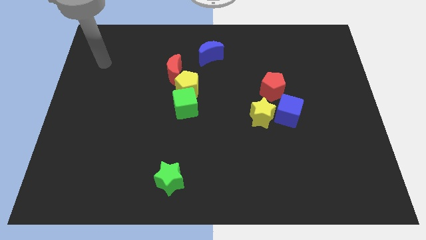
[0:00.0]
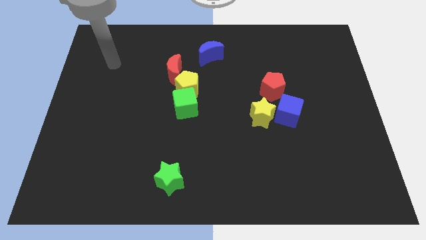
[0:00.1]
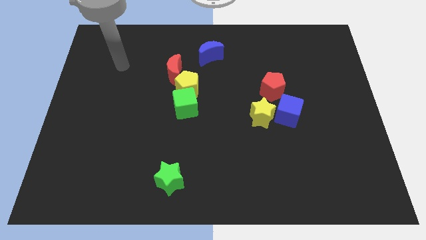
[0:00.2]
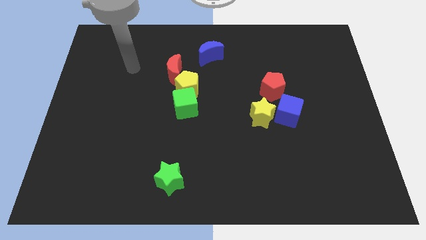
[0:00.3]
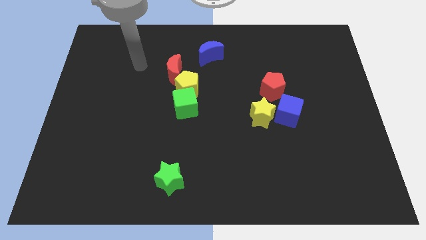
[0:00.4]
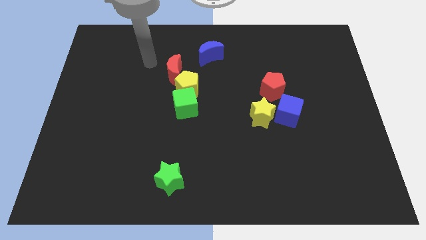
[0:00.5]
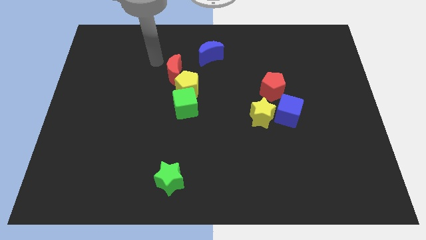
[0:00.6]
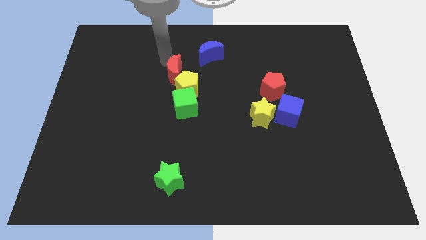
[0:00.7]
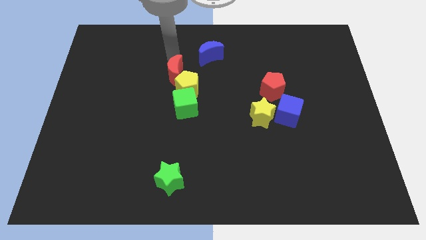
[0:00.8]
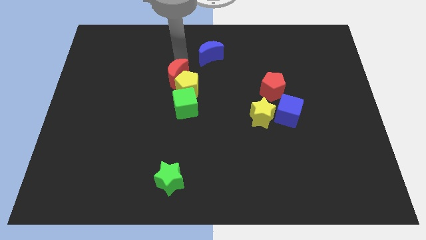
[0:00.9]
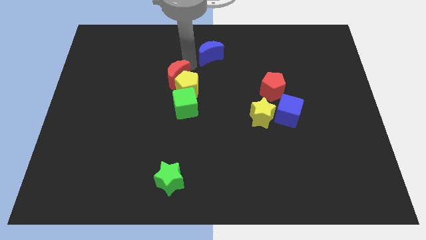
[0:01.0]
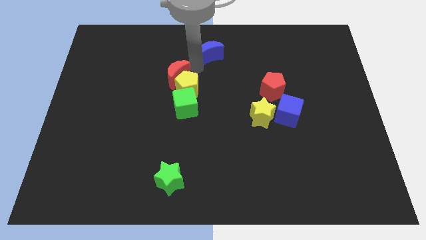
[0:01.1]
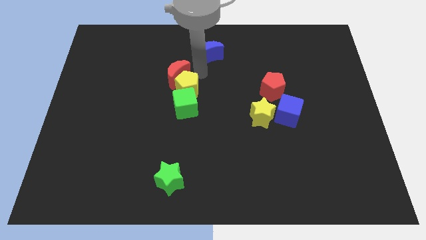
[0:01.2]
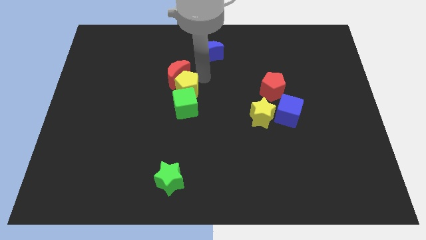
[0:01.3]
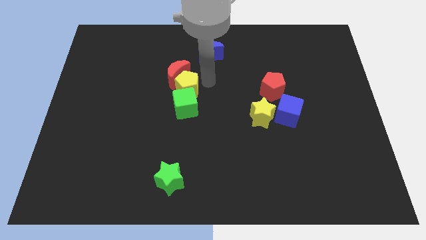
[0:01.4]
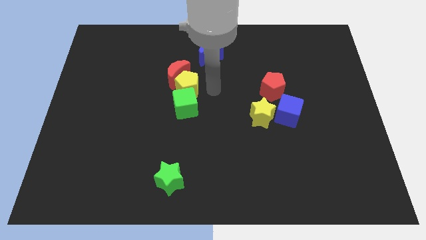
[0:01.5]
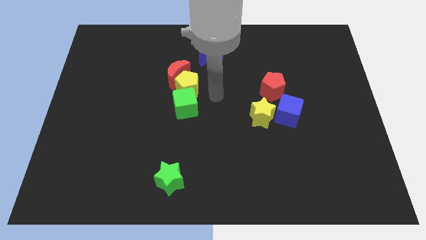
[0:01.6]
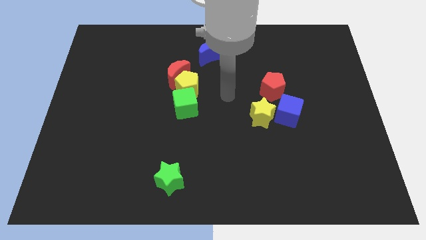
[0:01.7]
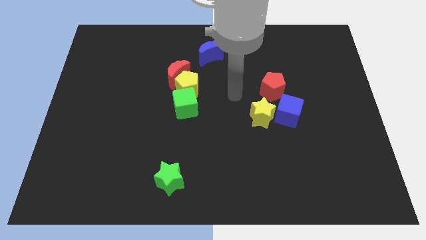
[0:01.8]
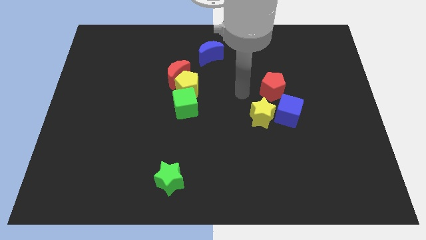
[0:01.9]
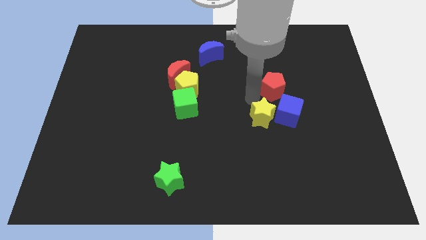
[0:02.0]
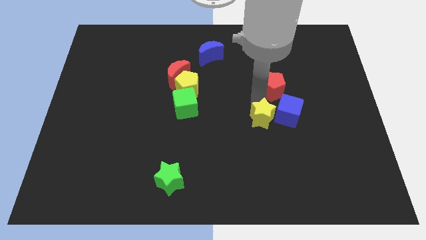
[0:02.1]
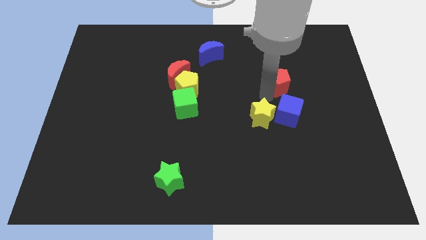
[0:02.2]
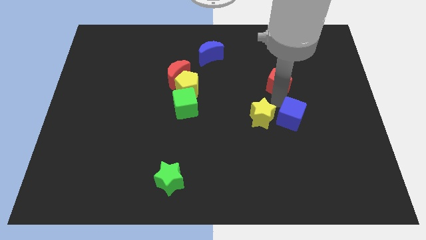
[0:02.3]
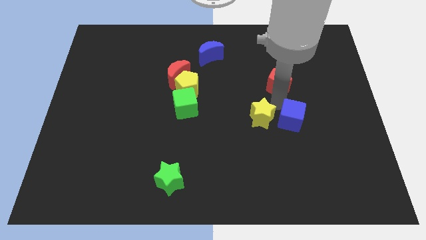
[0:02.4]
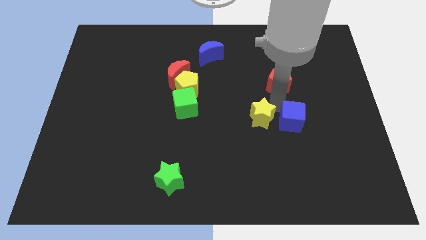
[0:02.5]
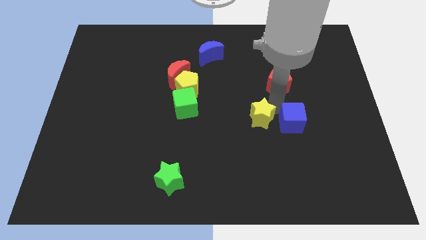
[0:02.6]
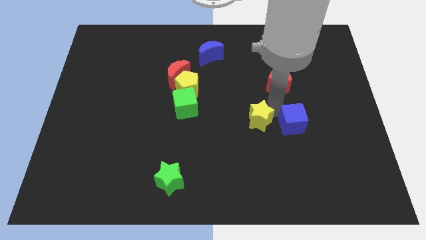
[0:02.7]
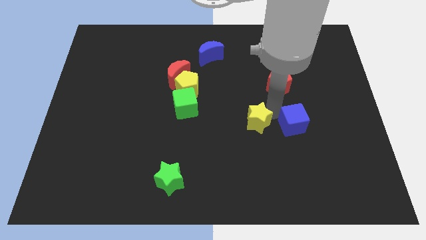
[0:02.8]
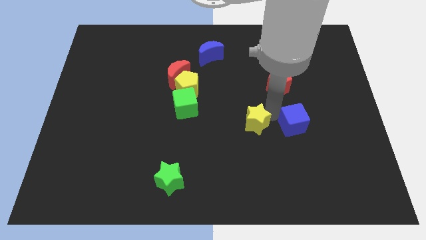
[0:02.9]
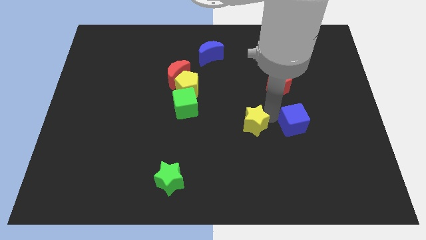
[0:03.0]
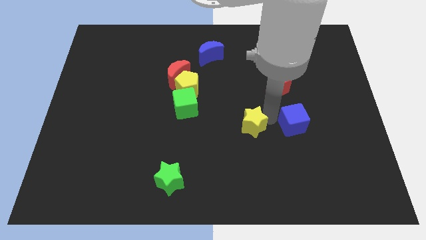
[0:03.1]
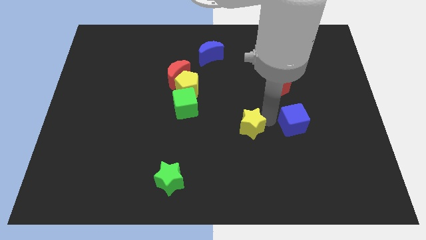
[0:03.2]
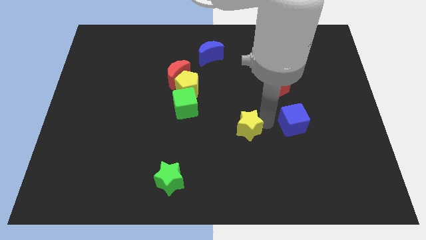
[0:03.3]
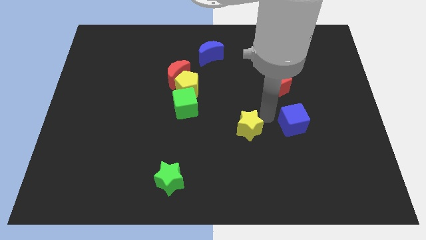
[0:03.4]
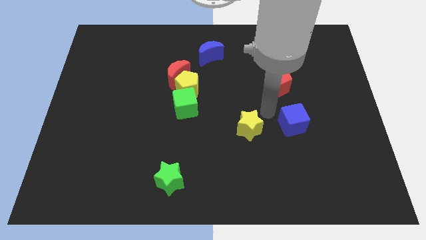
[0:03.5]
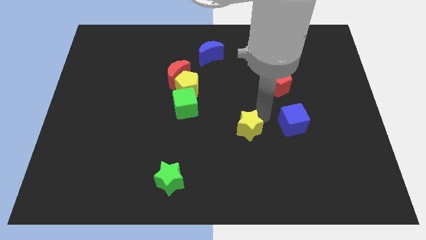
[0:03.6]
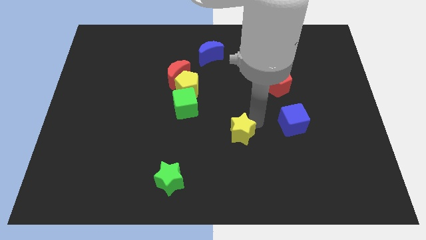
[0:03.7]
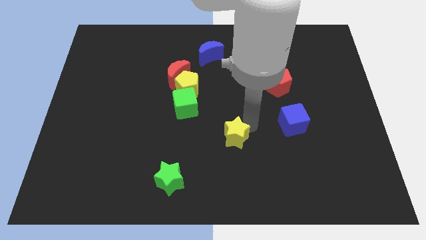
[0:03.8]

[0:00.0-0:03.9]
move the yellow star diagonally downwards and to the left a little

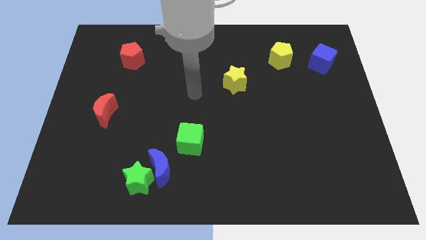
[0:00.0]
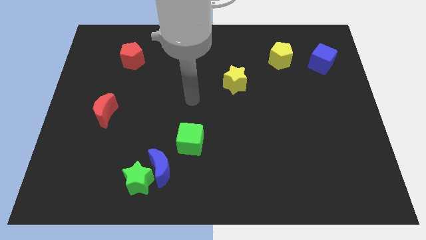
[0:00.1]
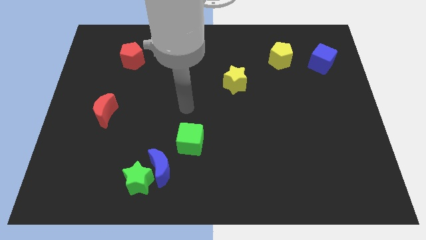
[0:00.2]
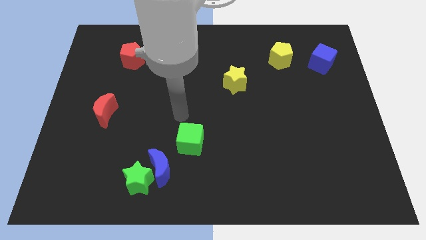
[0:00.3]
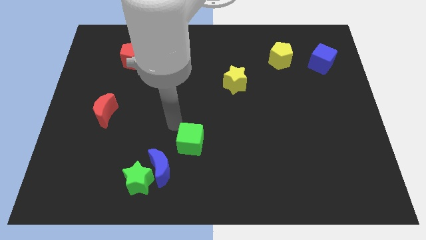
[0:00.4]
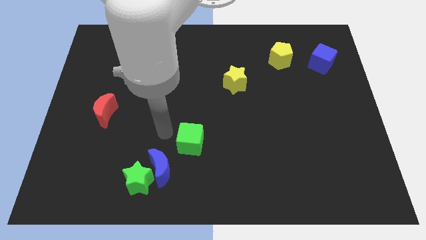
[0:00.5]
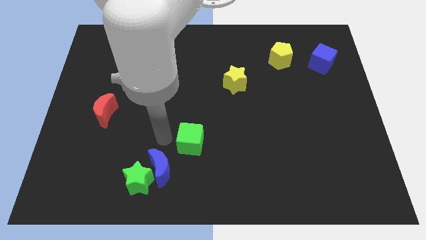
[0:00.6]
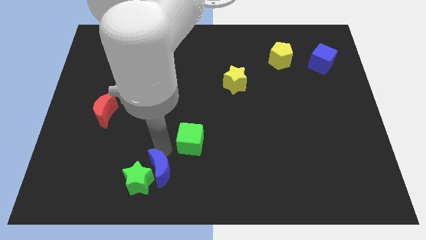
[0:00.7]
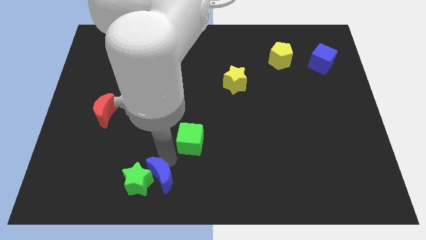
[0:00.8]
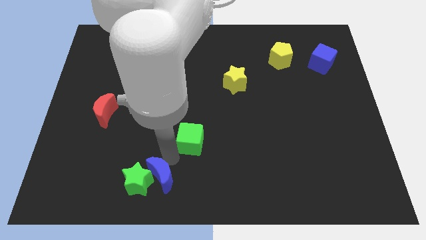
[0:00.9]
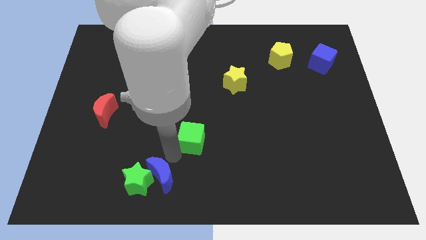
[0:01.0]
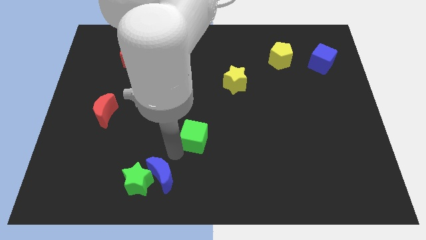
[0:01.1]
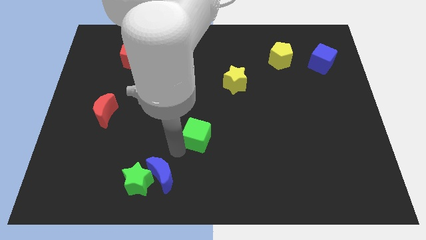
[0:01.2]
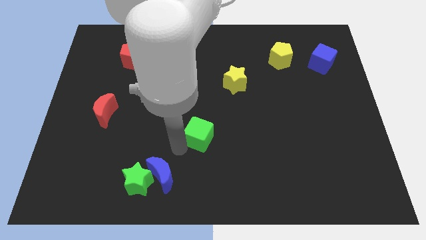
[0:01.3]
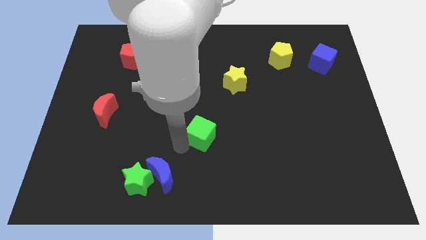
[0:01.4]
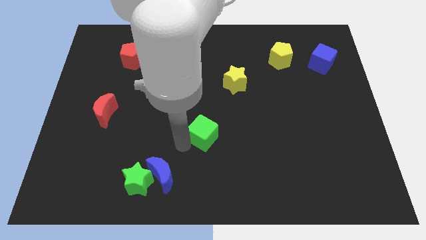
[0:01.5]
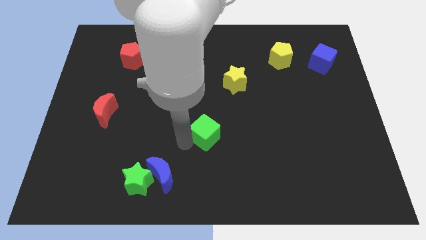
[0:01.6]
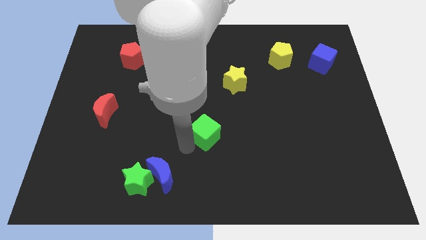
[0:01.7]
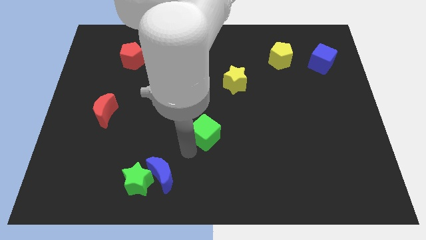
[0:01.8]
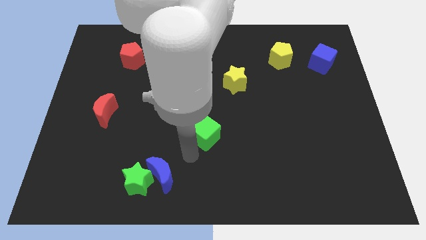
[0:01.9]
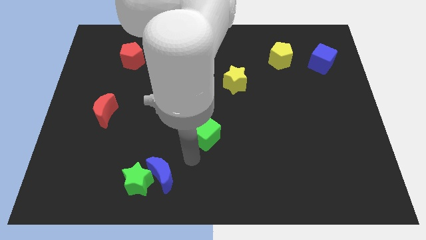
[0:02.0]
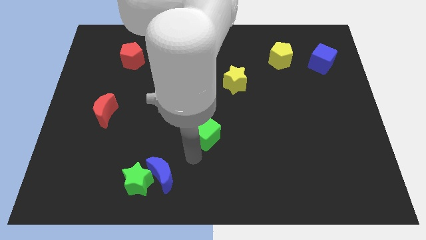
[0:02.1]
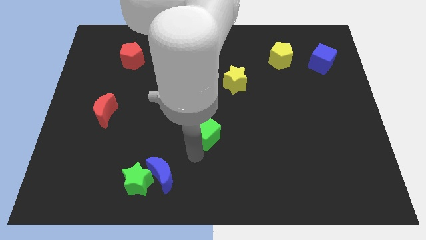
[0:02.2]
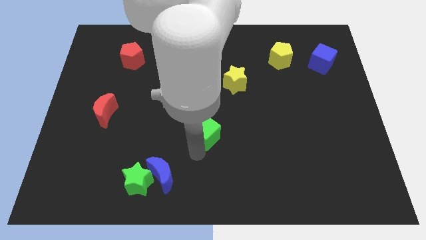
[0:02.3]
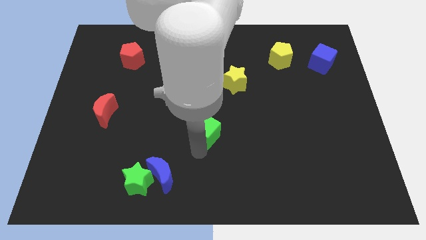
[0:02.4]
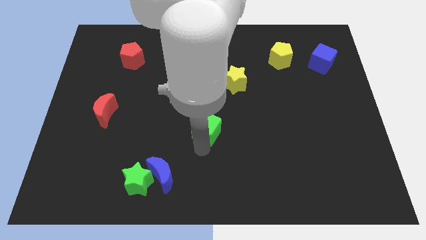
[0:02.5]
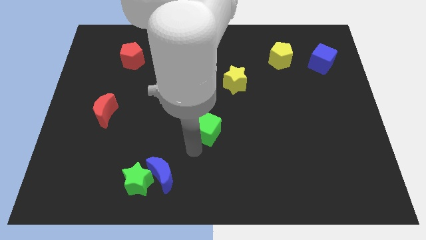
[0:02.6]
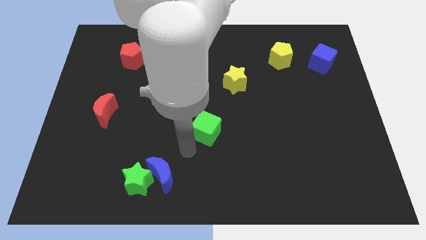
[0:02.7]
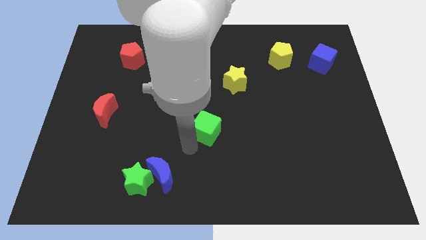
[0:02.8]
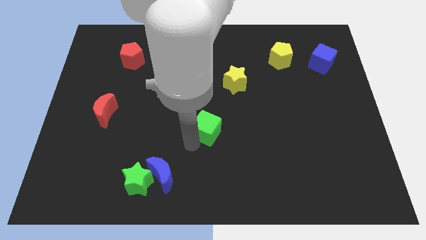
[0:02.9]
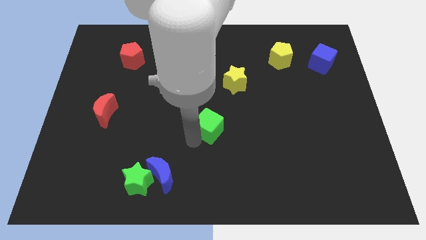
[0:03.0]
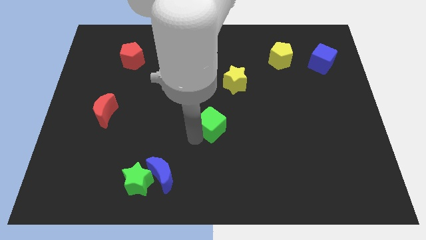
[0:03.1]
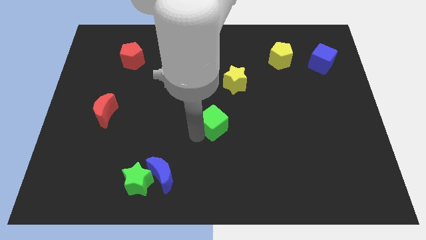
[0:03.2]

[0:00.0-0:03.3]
slightly slide the green cube upwards and to the right diagonally

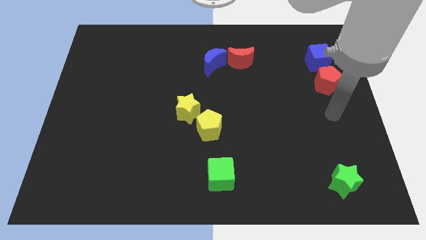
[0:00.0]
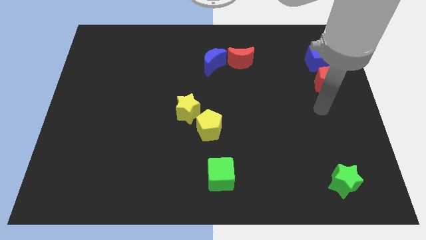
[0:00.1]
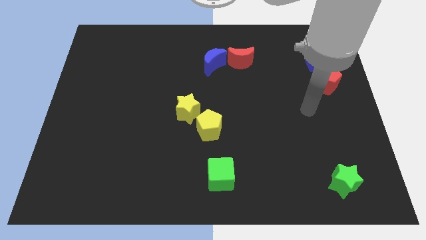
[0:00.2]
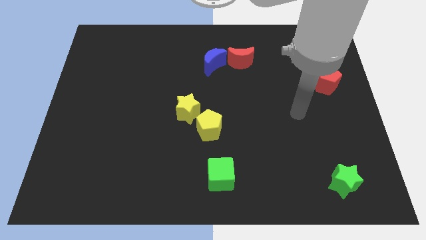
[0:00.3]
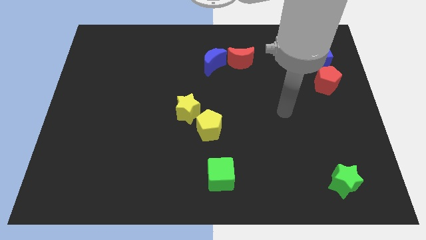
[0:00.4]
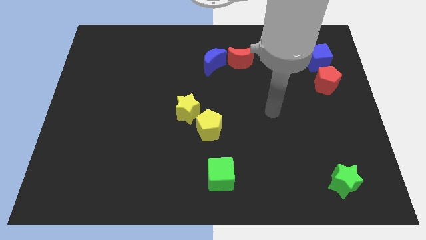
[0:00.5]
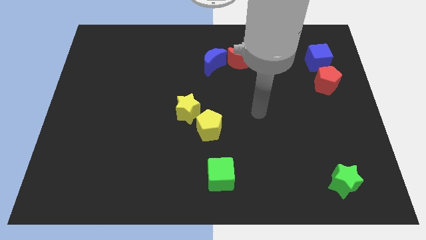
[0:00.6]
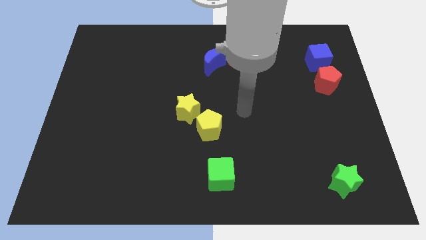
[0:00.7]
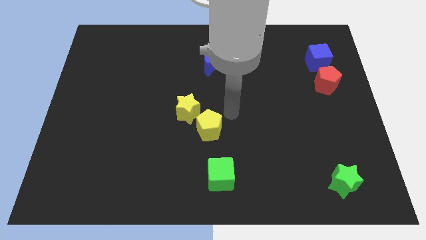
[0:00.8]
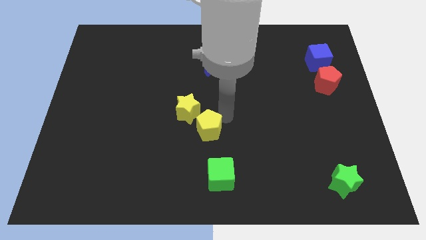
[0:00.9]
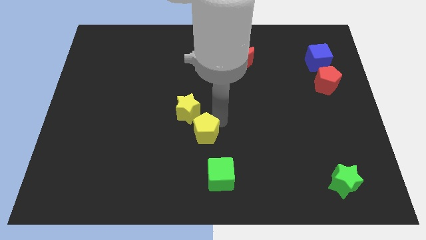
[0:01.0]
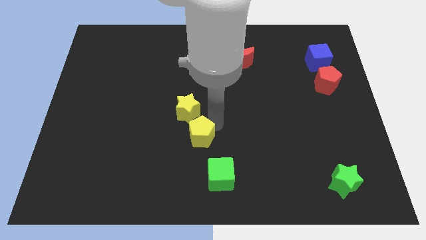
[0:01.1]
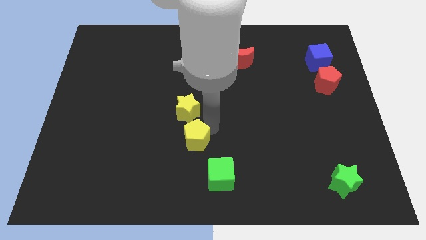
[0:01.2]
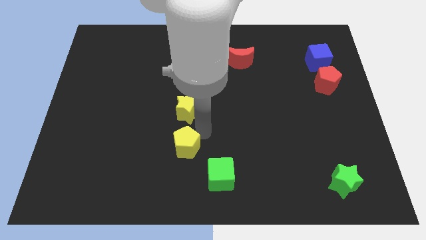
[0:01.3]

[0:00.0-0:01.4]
push the yellow pentagon downwards and then left somewhat
